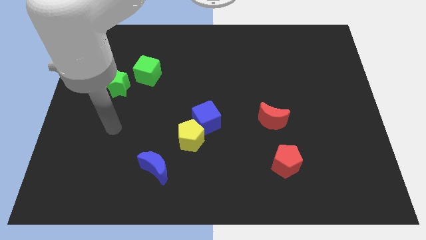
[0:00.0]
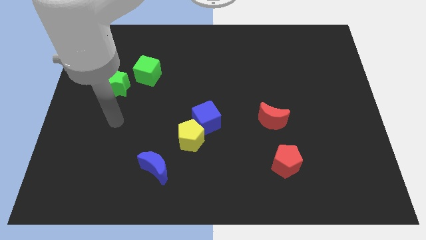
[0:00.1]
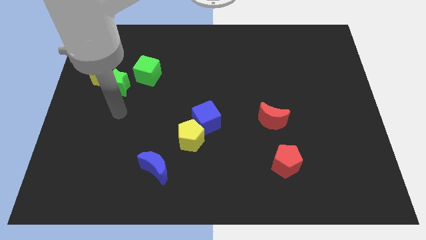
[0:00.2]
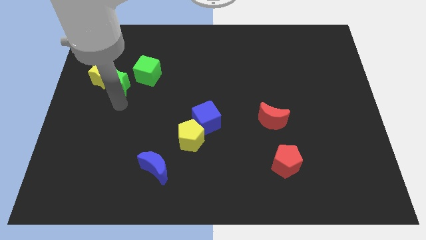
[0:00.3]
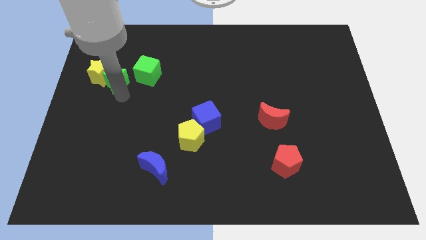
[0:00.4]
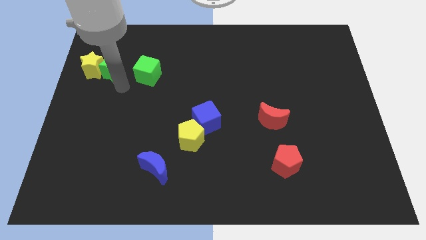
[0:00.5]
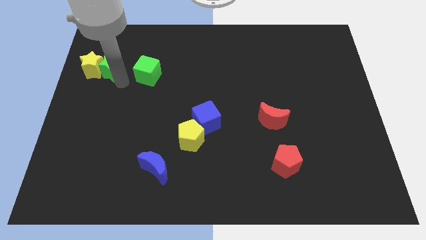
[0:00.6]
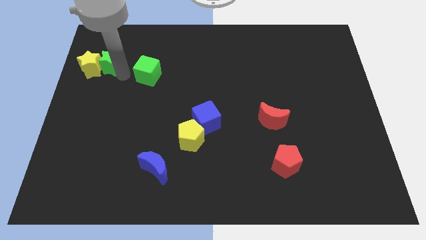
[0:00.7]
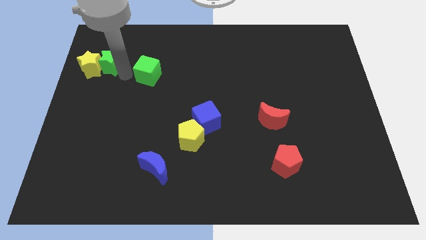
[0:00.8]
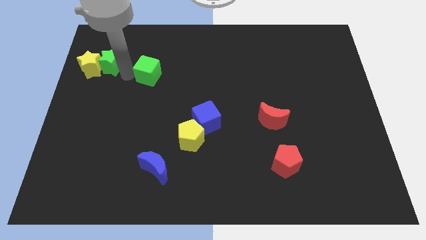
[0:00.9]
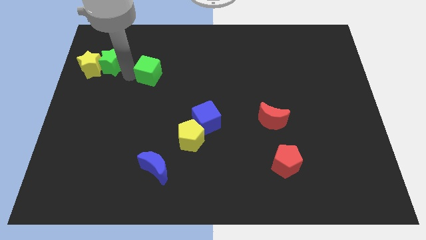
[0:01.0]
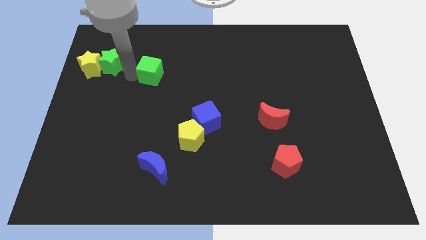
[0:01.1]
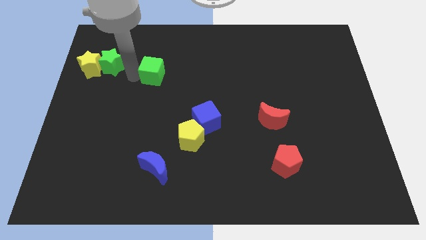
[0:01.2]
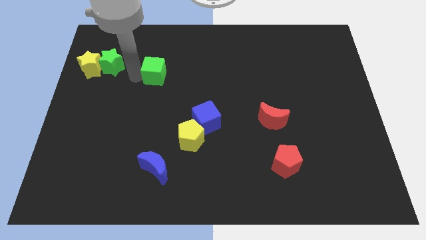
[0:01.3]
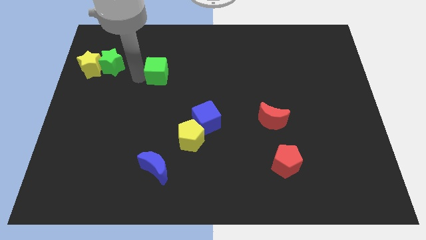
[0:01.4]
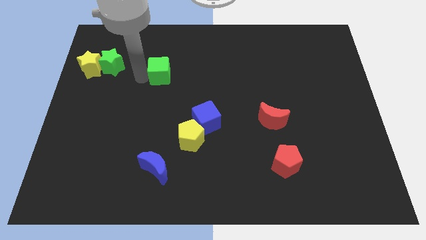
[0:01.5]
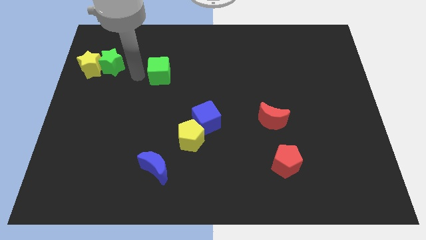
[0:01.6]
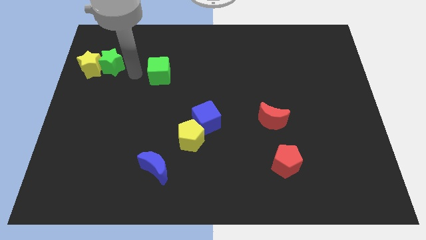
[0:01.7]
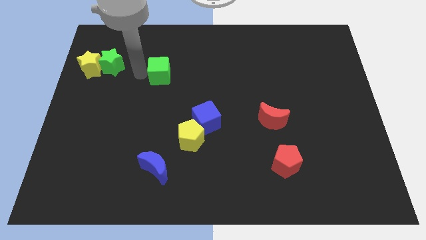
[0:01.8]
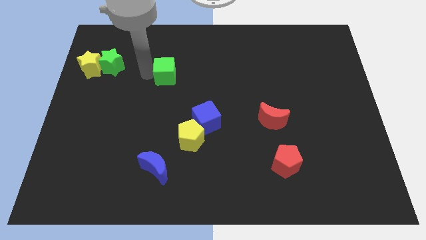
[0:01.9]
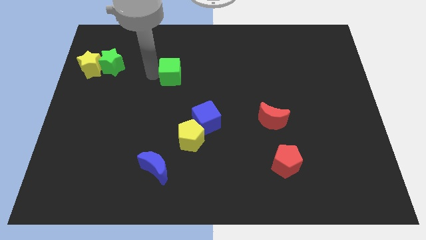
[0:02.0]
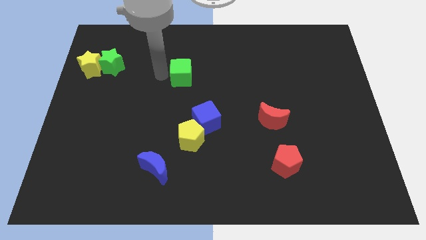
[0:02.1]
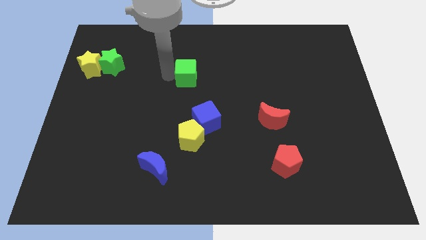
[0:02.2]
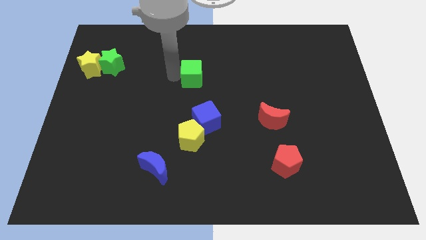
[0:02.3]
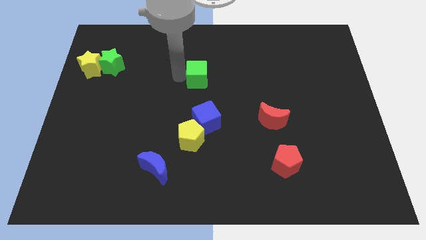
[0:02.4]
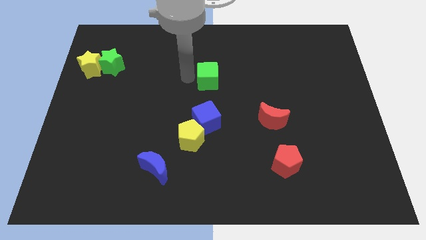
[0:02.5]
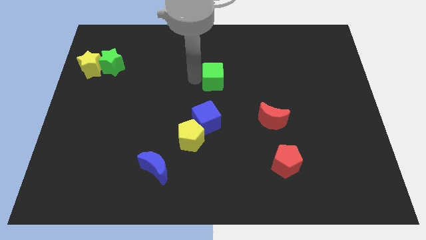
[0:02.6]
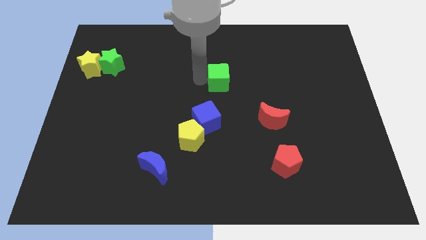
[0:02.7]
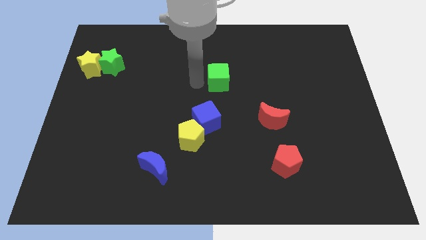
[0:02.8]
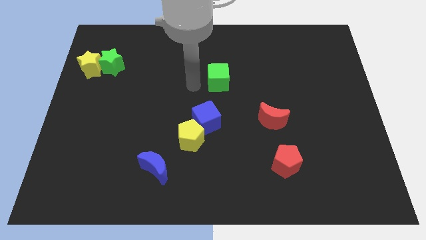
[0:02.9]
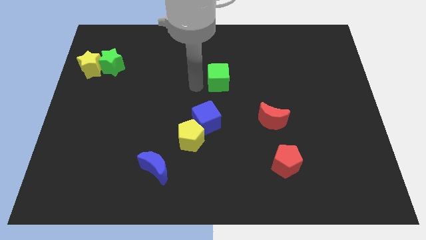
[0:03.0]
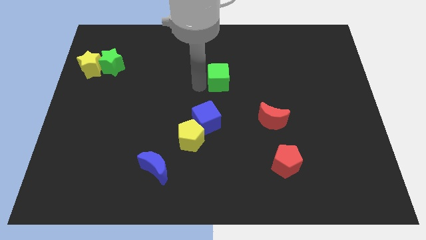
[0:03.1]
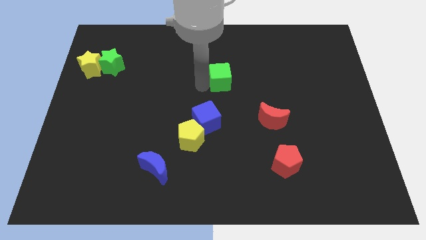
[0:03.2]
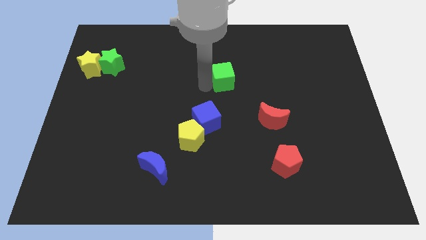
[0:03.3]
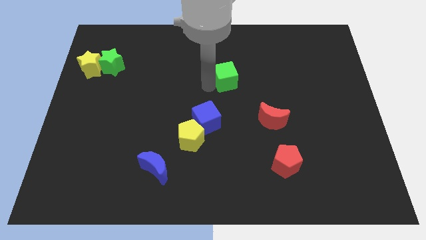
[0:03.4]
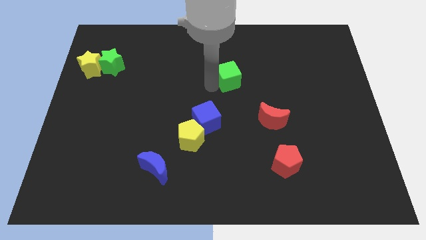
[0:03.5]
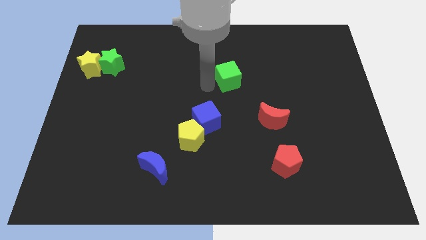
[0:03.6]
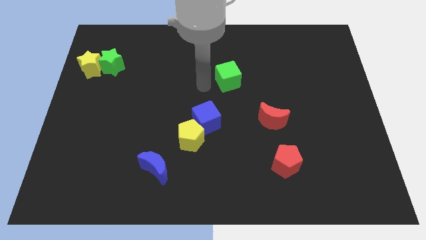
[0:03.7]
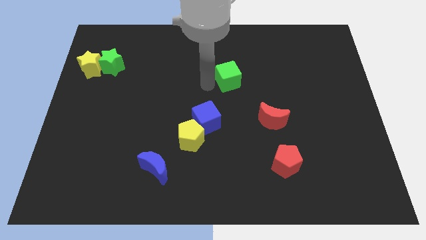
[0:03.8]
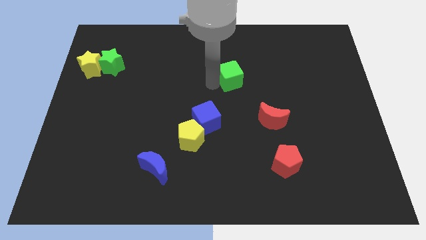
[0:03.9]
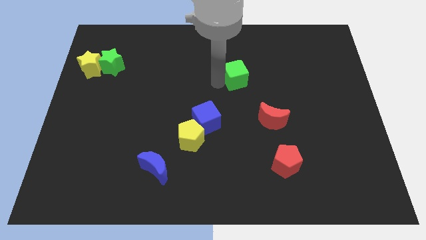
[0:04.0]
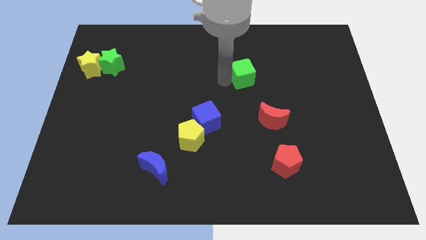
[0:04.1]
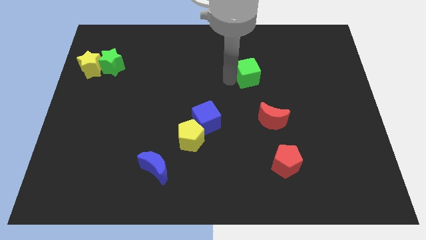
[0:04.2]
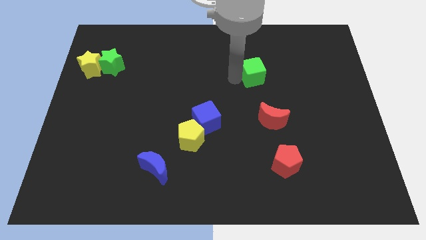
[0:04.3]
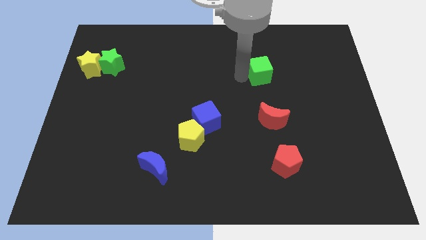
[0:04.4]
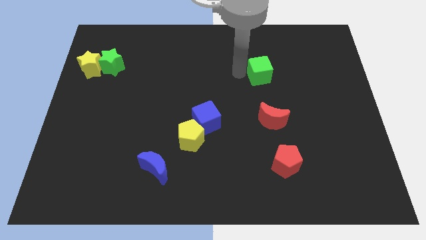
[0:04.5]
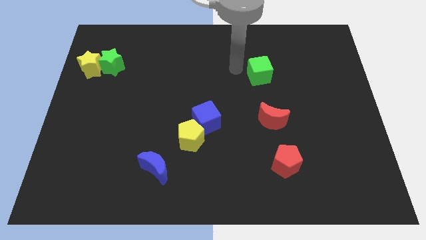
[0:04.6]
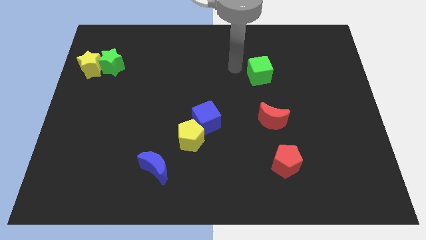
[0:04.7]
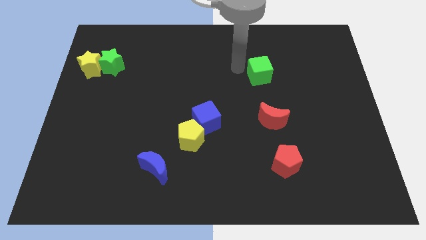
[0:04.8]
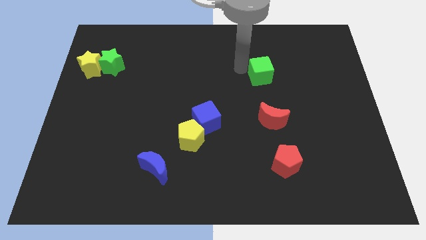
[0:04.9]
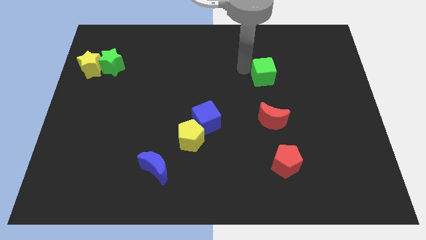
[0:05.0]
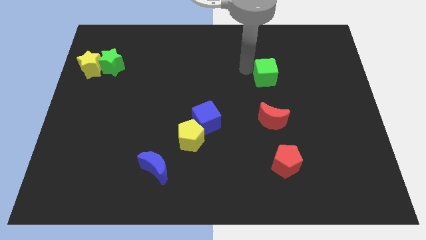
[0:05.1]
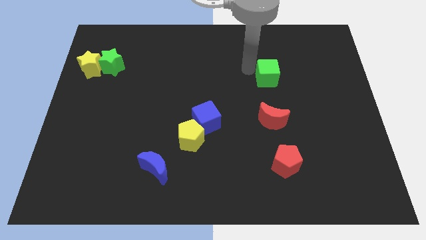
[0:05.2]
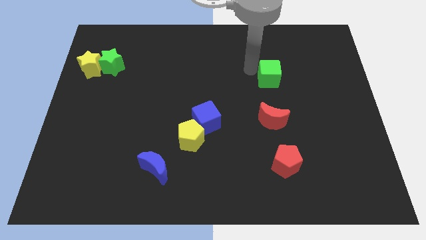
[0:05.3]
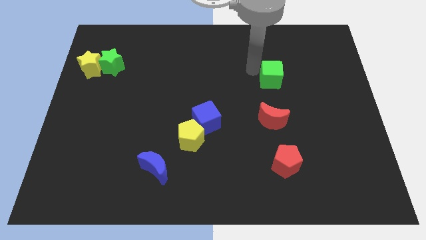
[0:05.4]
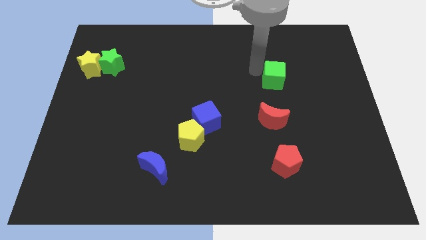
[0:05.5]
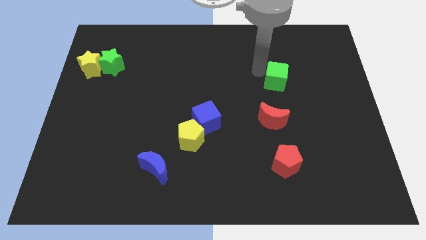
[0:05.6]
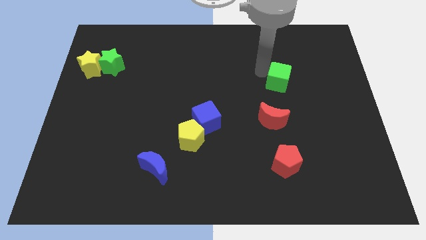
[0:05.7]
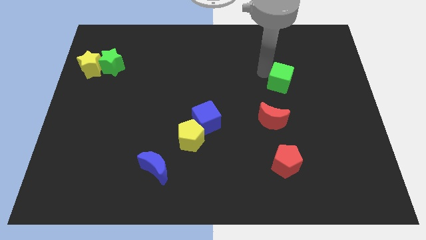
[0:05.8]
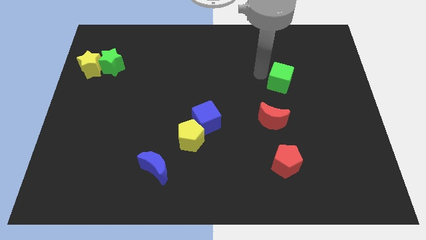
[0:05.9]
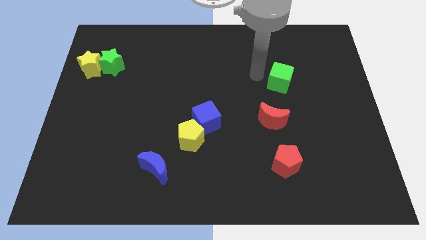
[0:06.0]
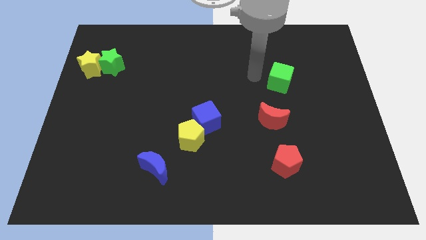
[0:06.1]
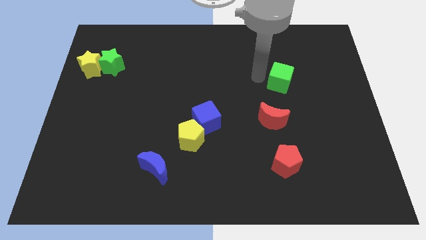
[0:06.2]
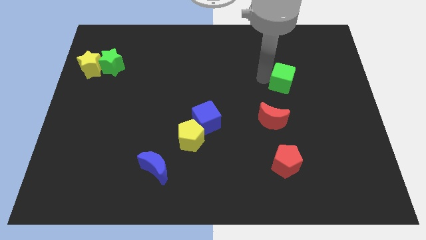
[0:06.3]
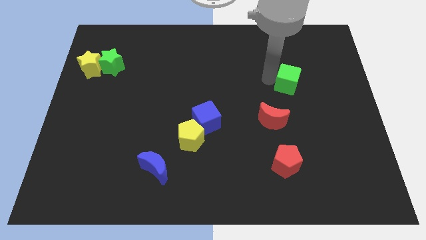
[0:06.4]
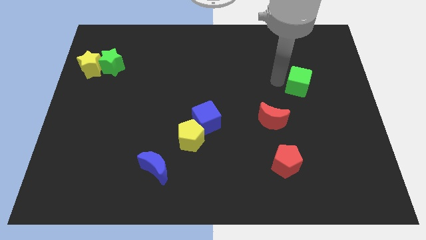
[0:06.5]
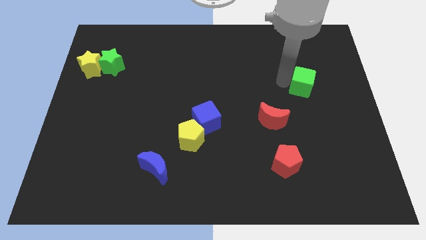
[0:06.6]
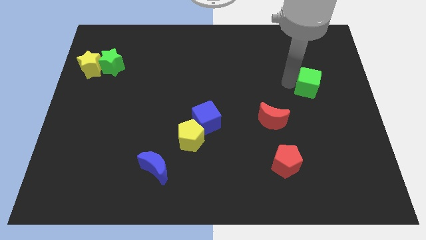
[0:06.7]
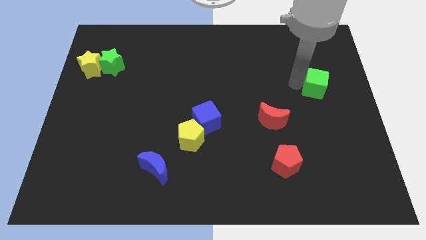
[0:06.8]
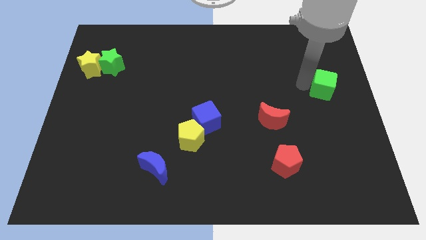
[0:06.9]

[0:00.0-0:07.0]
move the green cube to the right side
